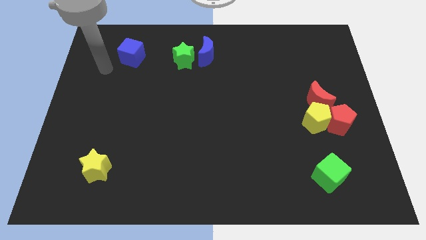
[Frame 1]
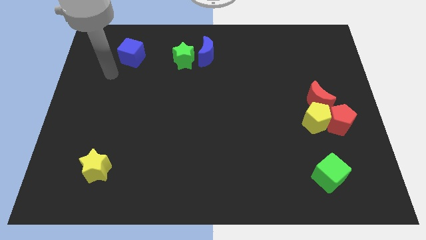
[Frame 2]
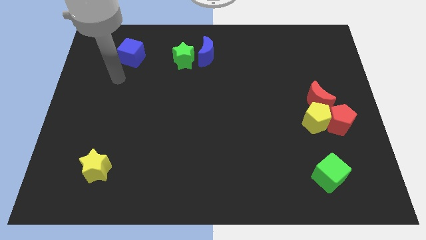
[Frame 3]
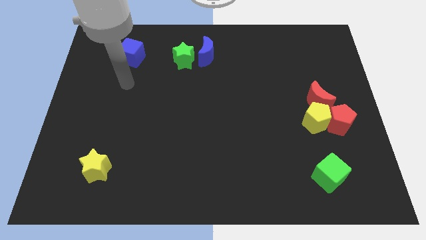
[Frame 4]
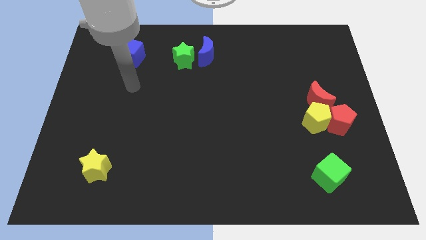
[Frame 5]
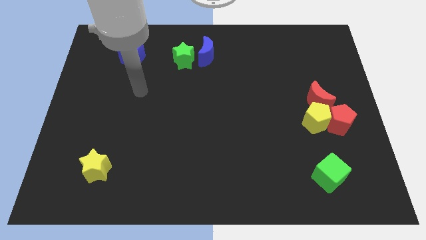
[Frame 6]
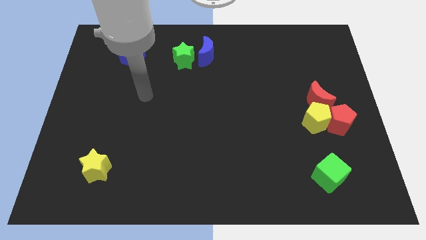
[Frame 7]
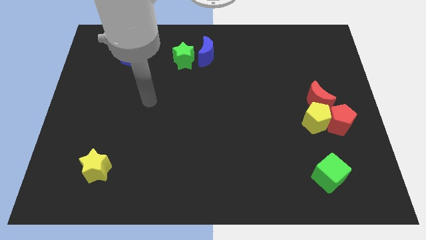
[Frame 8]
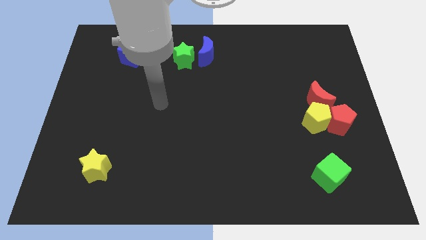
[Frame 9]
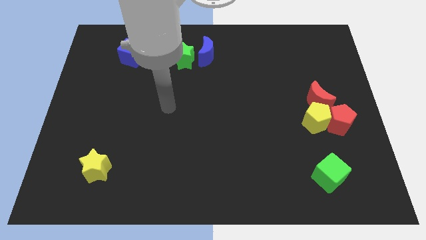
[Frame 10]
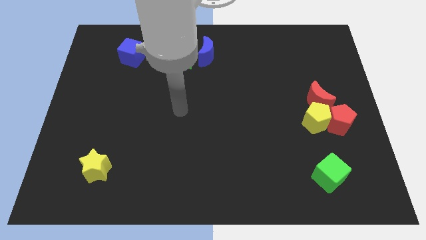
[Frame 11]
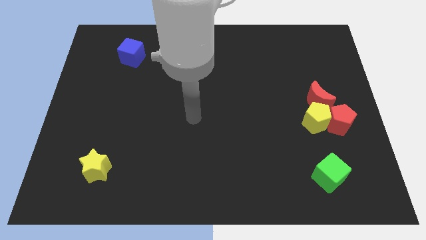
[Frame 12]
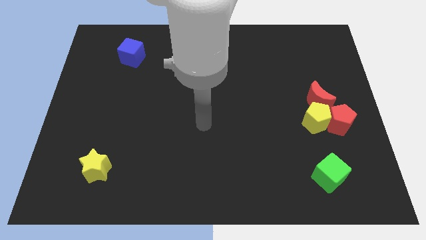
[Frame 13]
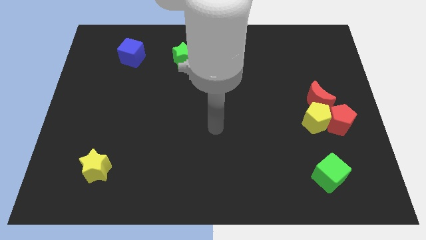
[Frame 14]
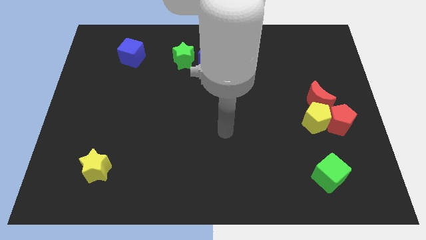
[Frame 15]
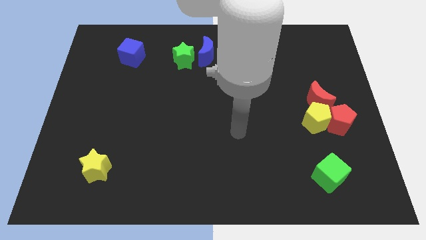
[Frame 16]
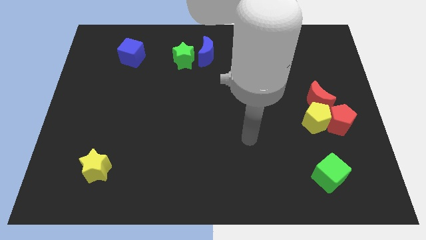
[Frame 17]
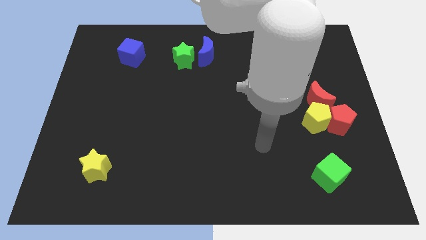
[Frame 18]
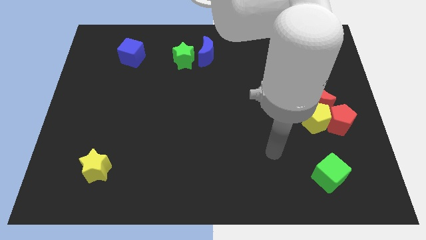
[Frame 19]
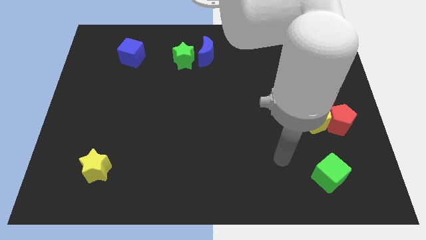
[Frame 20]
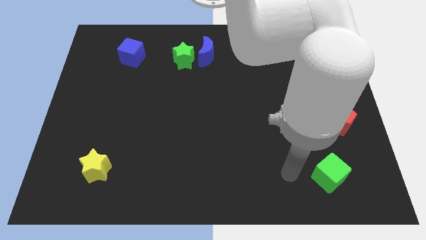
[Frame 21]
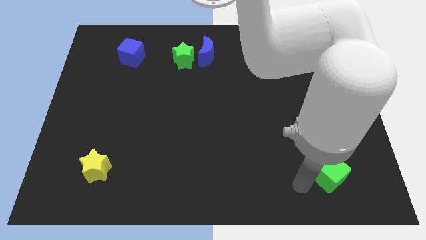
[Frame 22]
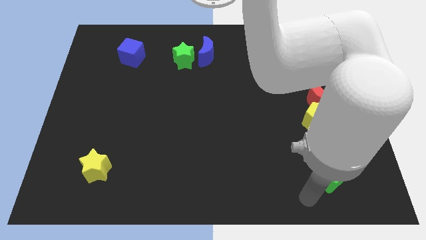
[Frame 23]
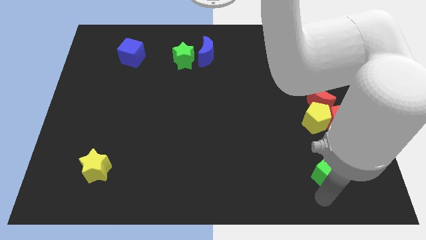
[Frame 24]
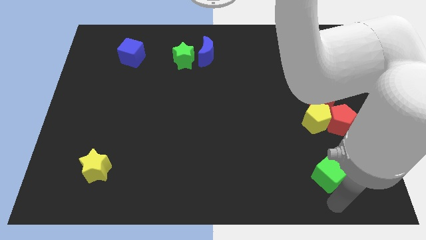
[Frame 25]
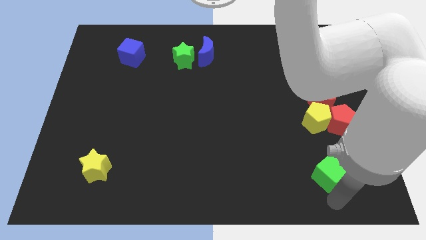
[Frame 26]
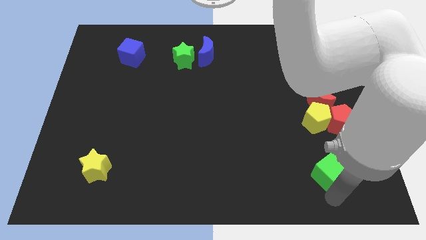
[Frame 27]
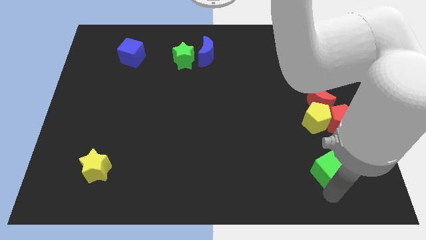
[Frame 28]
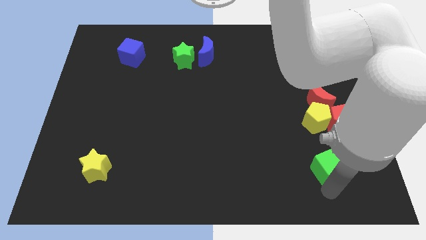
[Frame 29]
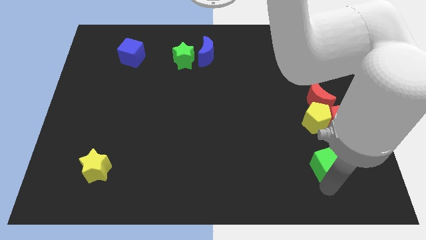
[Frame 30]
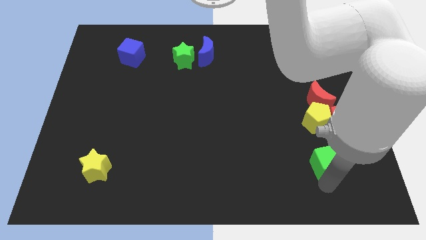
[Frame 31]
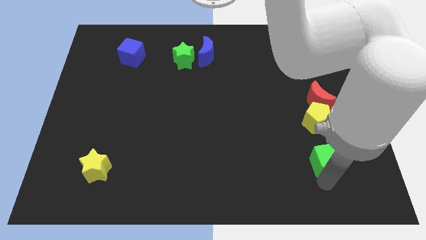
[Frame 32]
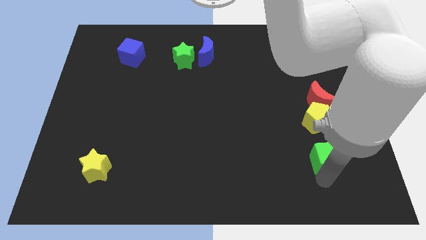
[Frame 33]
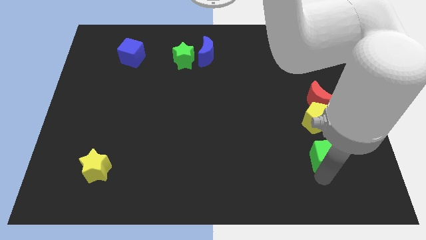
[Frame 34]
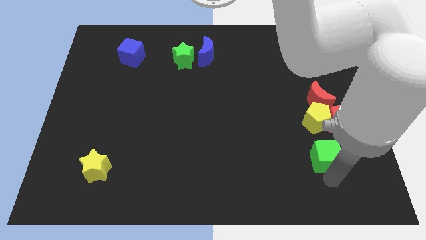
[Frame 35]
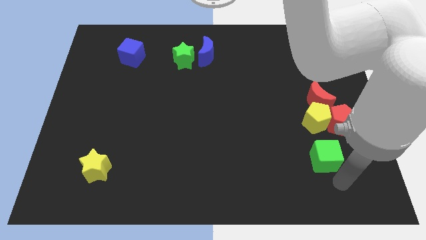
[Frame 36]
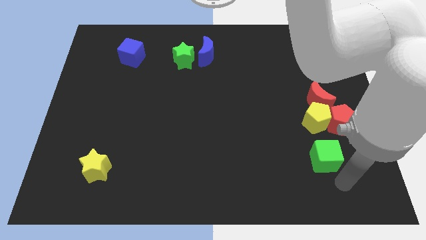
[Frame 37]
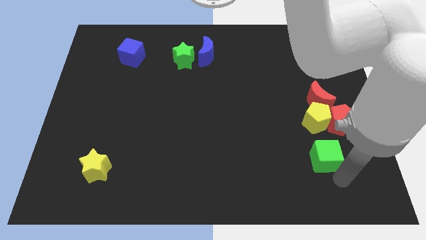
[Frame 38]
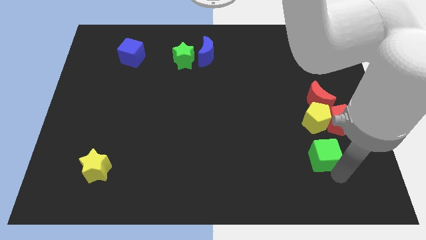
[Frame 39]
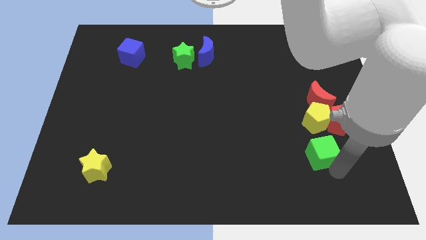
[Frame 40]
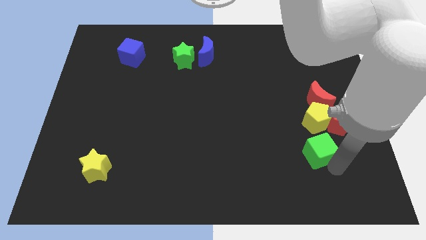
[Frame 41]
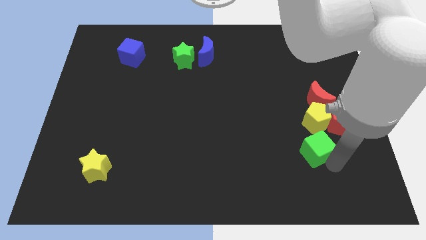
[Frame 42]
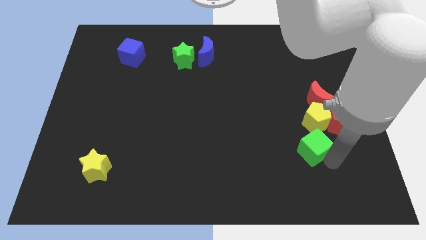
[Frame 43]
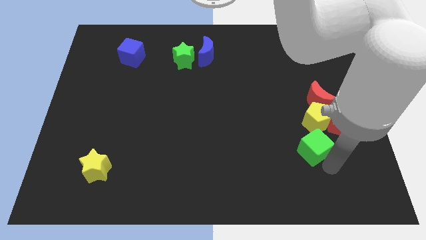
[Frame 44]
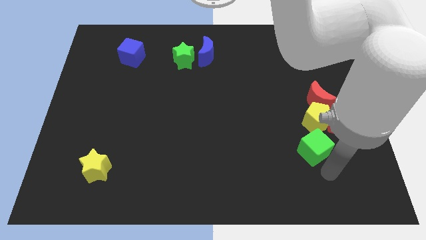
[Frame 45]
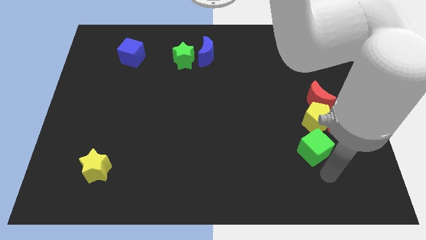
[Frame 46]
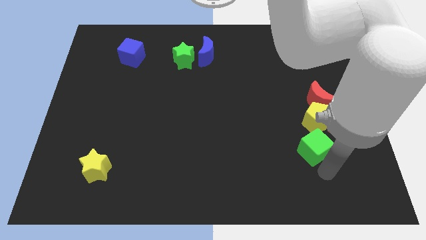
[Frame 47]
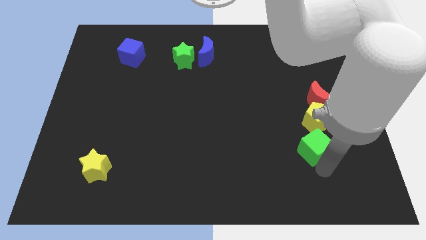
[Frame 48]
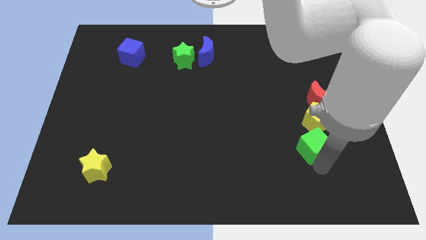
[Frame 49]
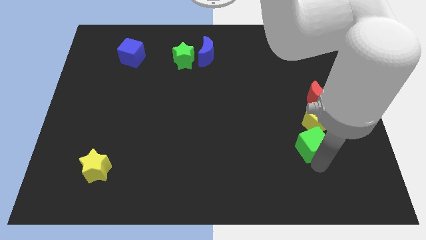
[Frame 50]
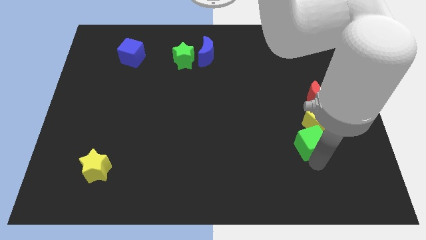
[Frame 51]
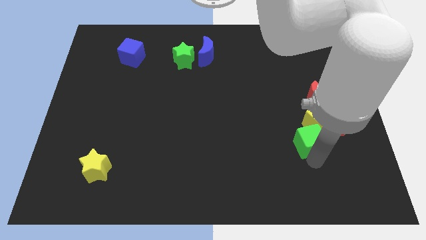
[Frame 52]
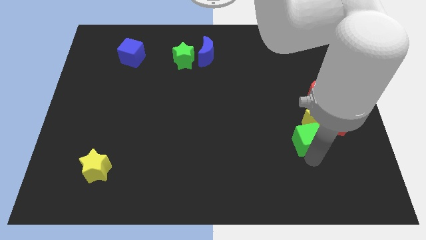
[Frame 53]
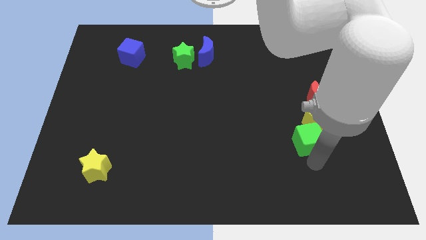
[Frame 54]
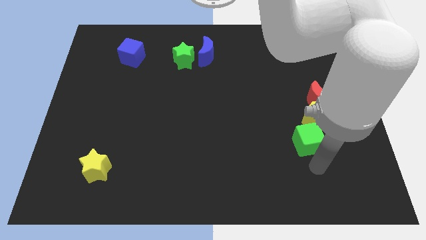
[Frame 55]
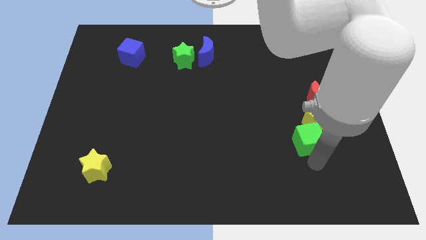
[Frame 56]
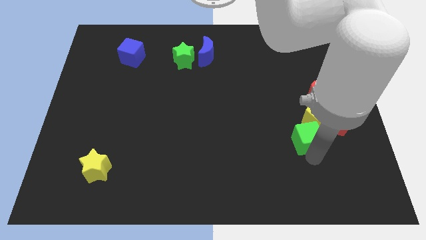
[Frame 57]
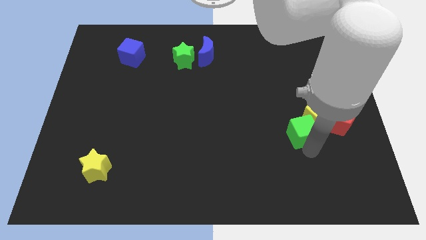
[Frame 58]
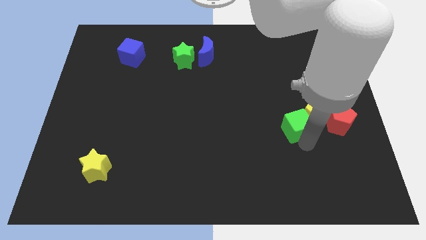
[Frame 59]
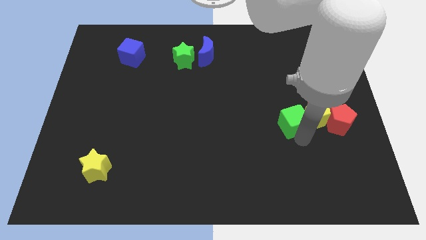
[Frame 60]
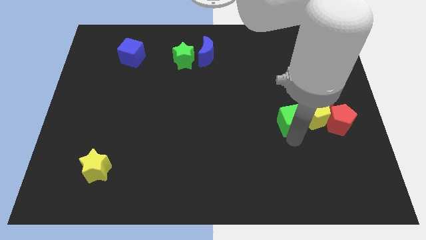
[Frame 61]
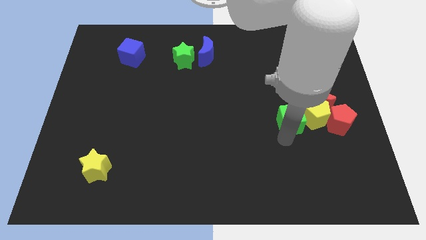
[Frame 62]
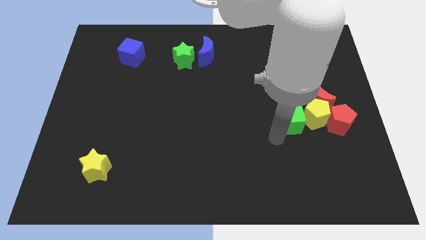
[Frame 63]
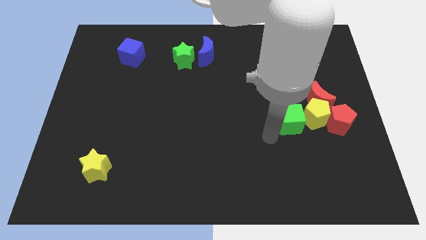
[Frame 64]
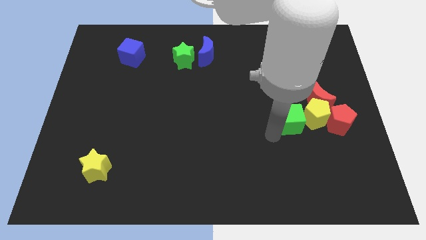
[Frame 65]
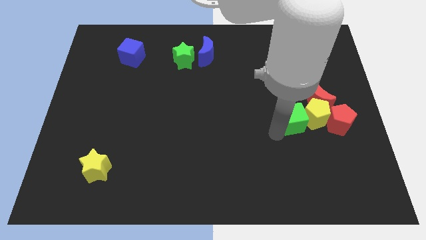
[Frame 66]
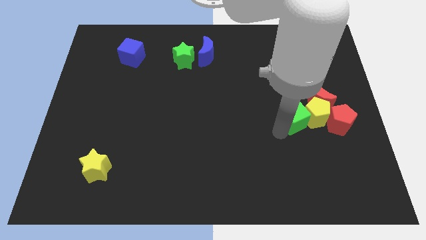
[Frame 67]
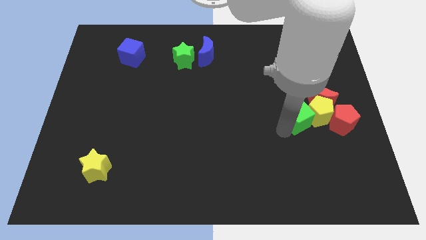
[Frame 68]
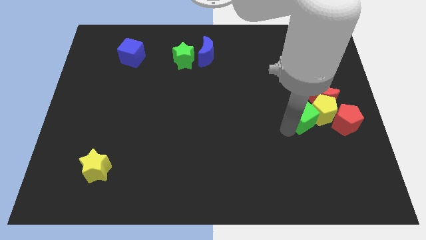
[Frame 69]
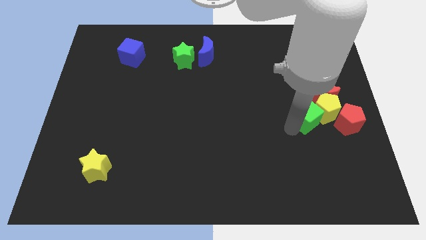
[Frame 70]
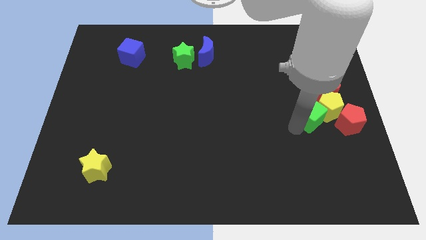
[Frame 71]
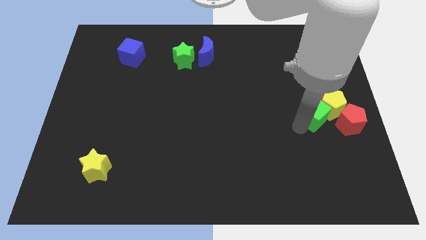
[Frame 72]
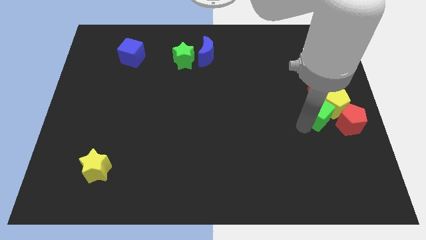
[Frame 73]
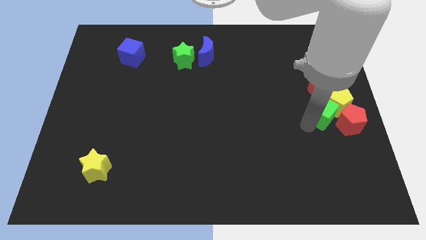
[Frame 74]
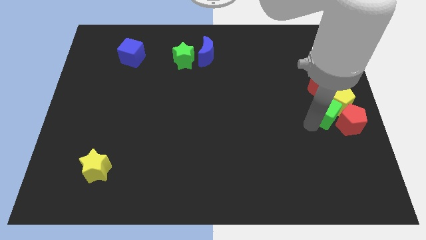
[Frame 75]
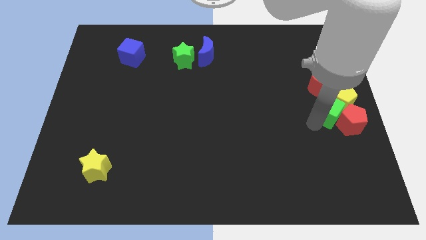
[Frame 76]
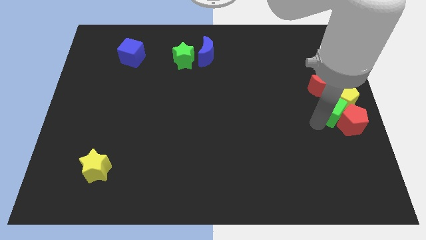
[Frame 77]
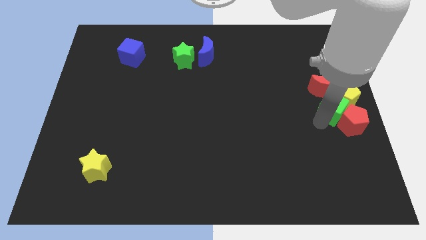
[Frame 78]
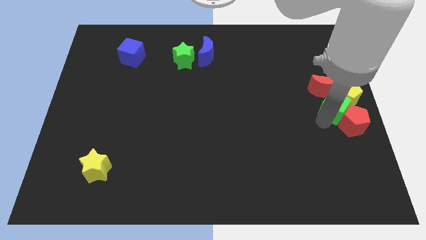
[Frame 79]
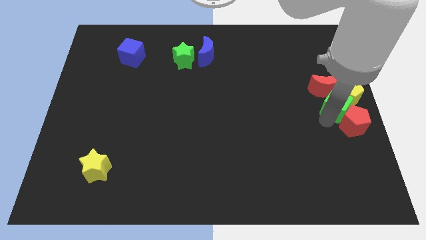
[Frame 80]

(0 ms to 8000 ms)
move the green cube next to the red moon

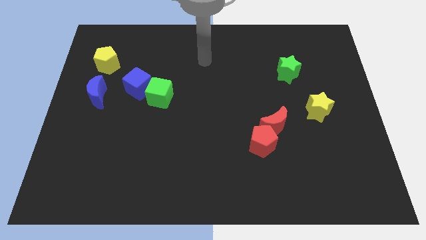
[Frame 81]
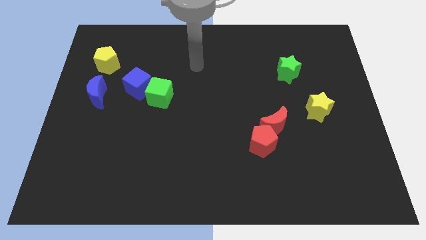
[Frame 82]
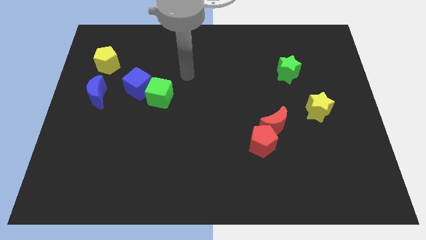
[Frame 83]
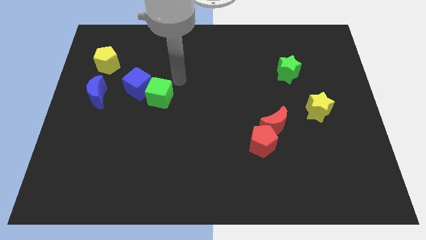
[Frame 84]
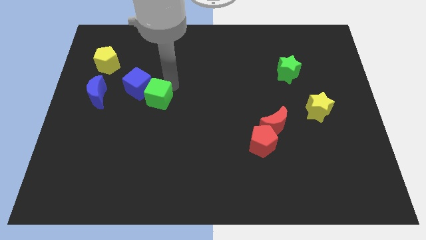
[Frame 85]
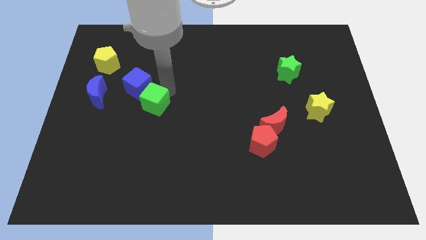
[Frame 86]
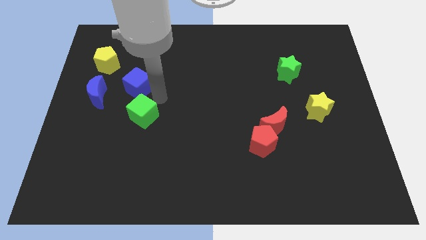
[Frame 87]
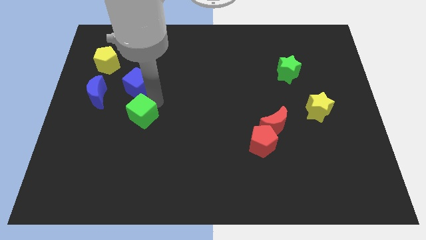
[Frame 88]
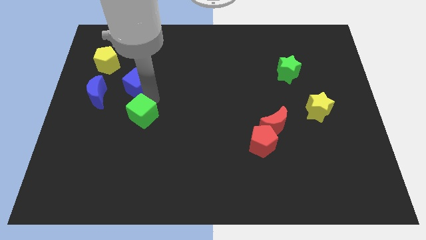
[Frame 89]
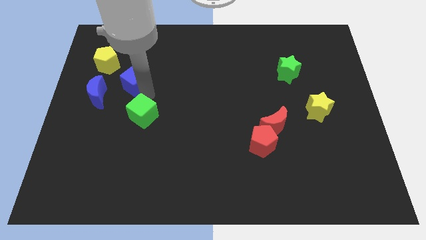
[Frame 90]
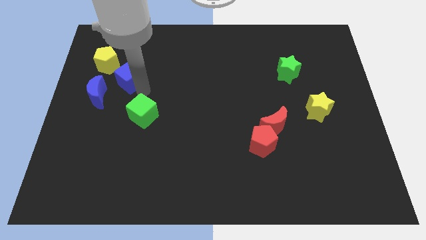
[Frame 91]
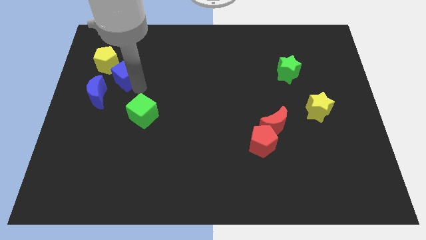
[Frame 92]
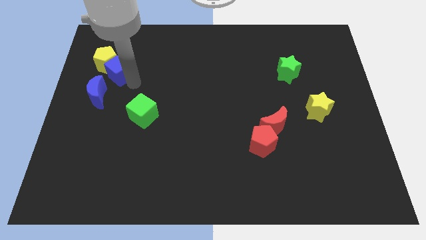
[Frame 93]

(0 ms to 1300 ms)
move the blue cube to the yellow pentagon
